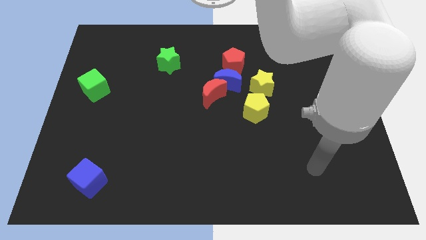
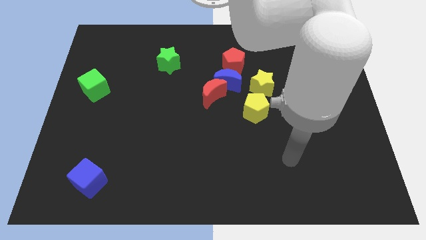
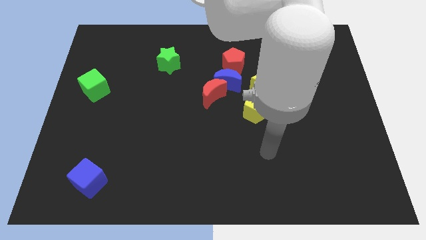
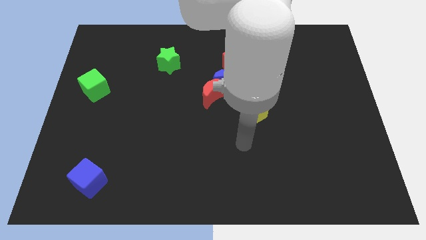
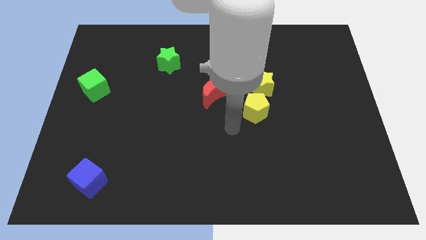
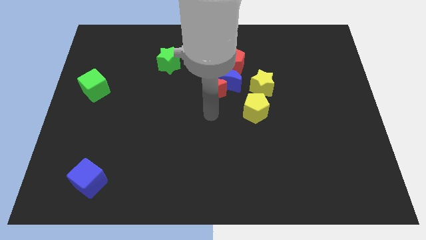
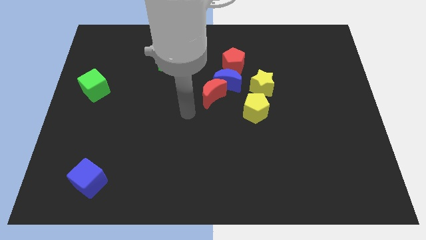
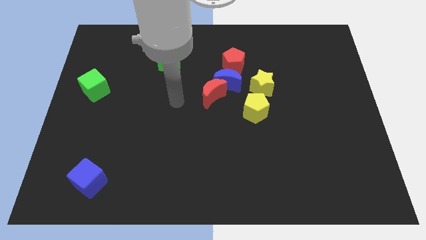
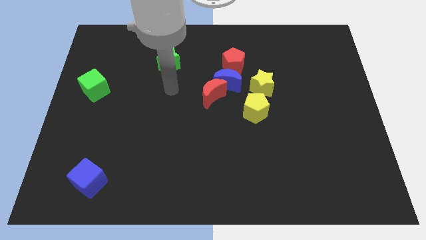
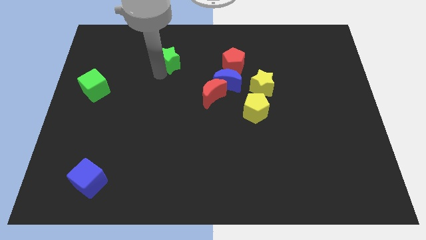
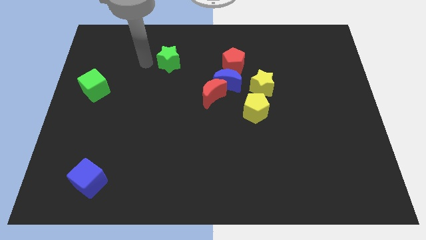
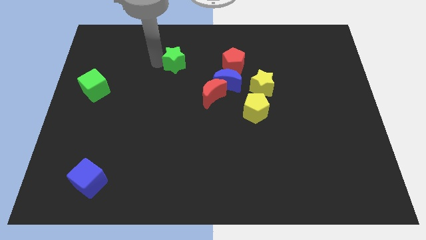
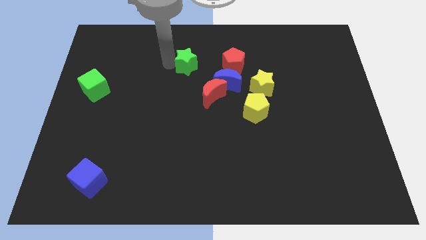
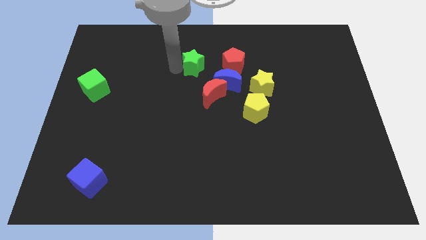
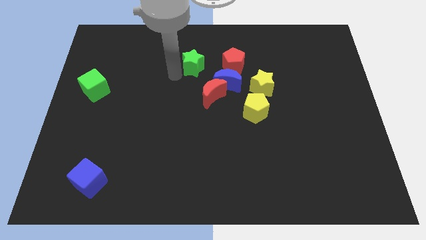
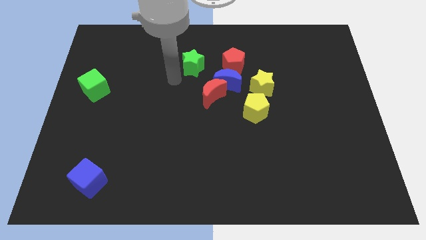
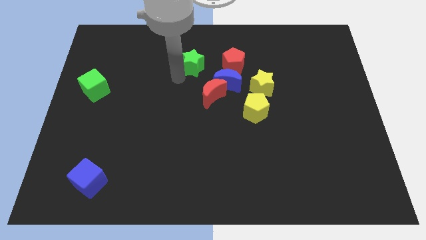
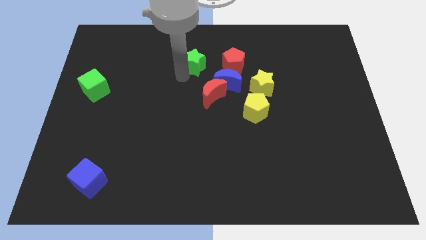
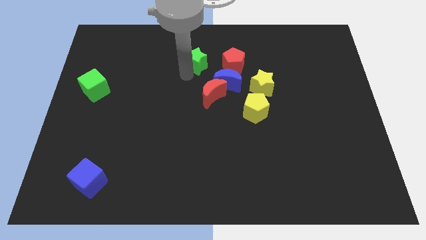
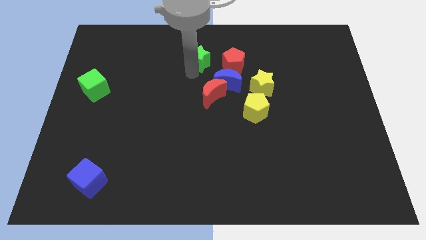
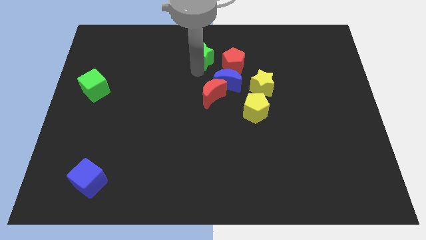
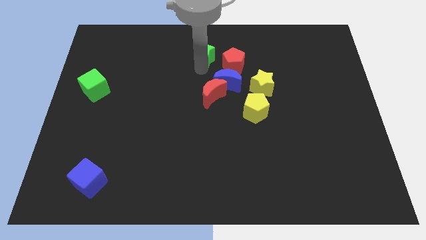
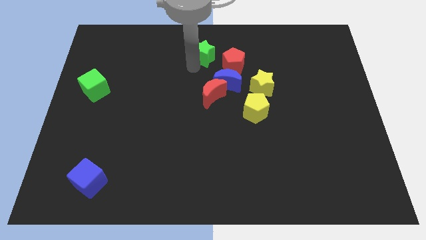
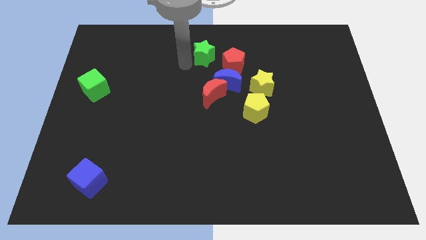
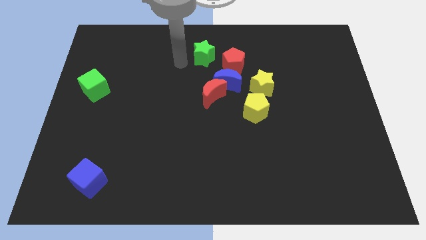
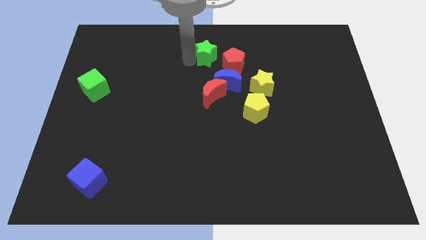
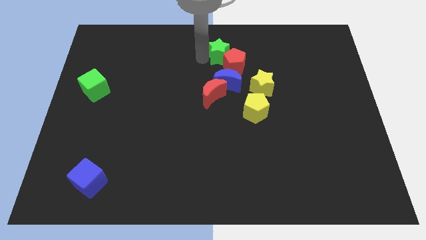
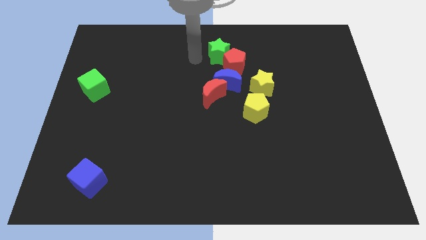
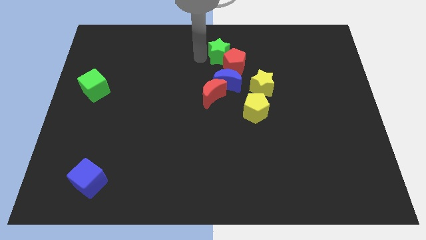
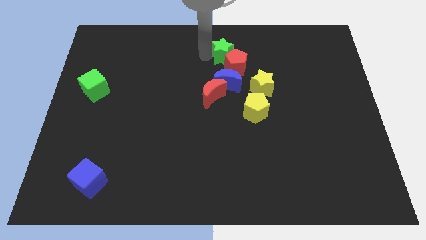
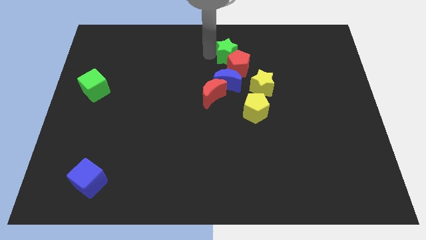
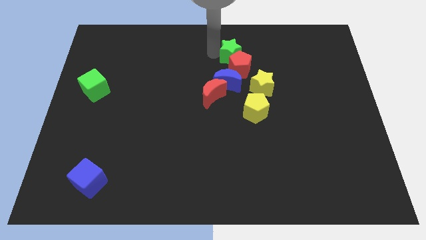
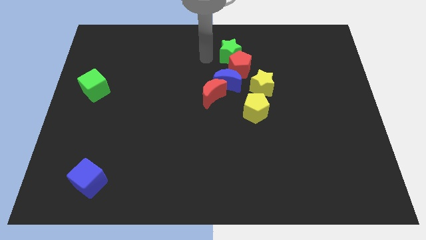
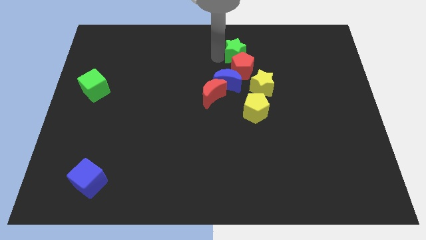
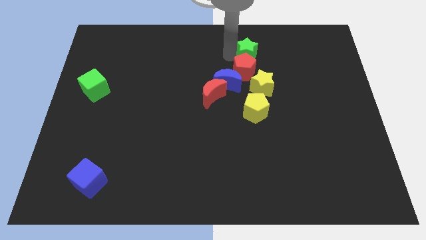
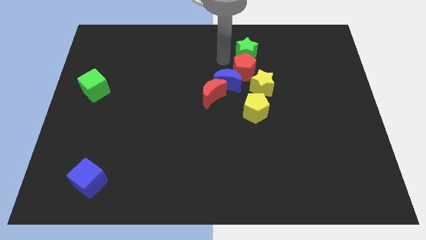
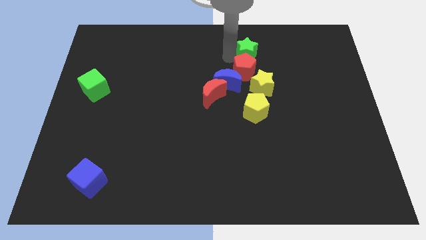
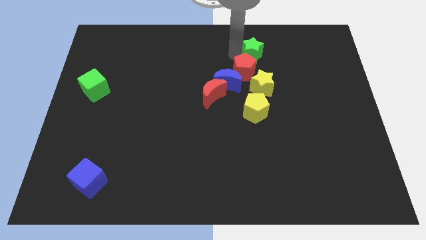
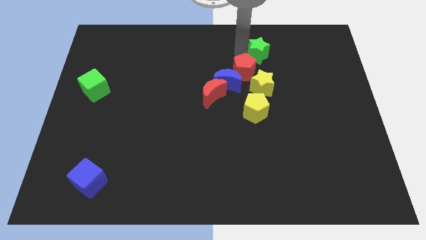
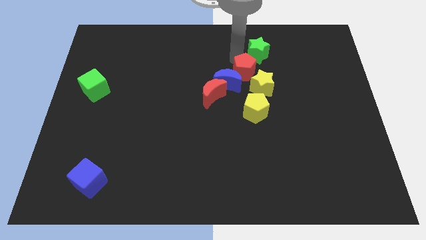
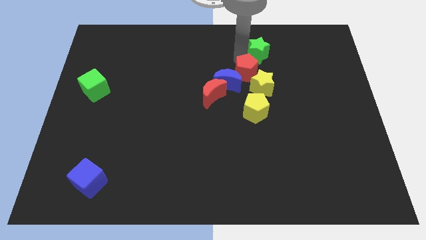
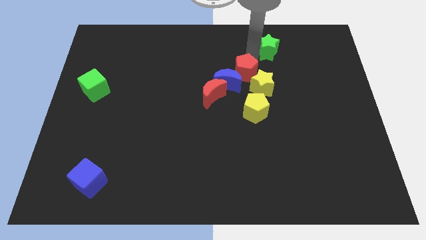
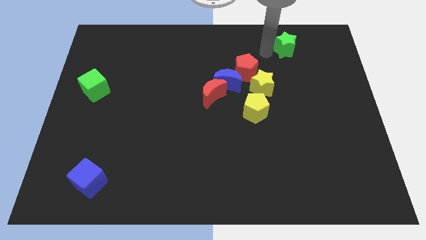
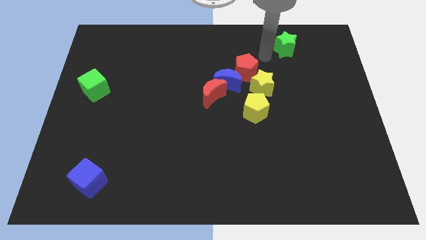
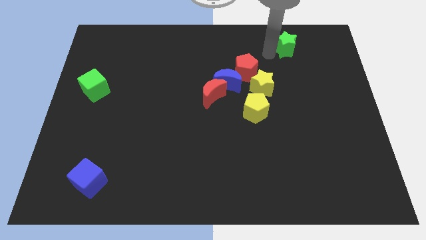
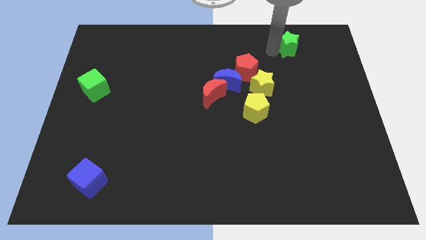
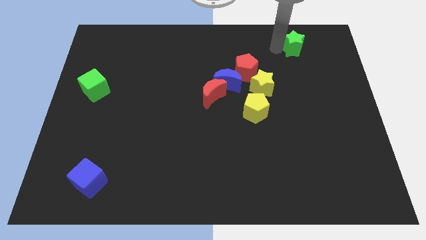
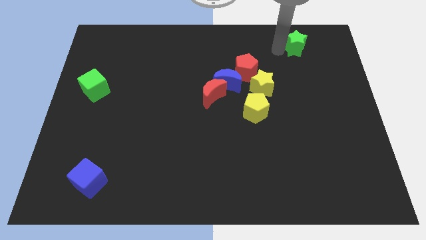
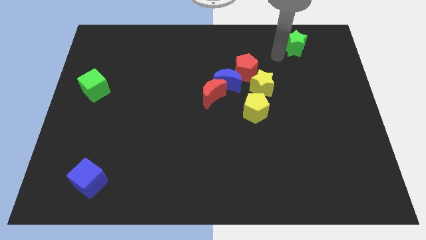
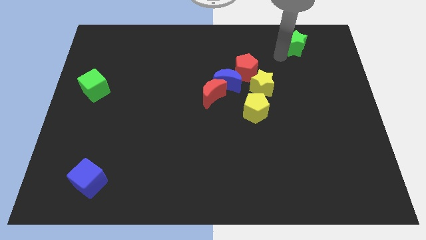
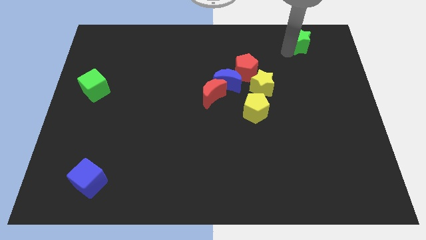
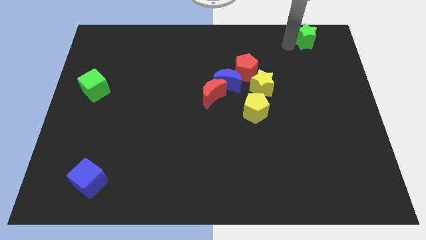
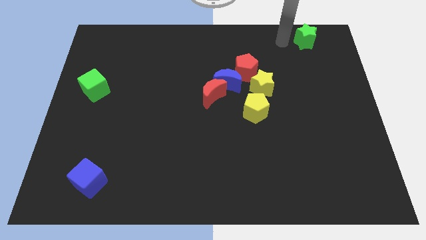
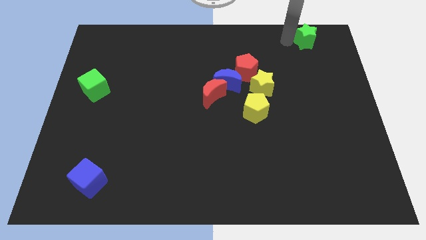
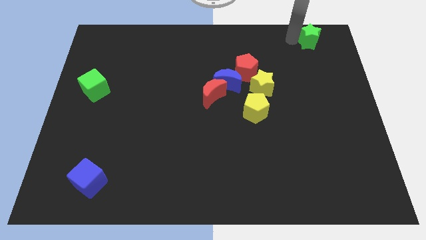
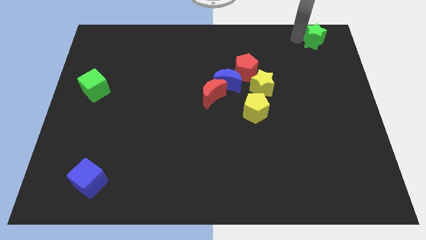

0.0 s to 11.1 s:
move the green star to the top right corner
